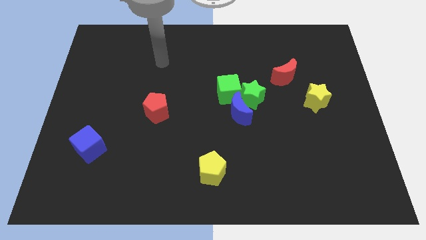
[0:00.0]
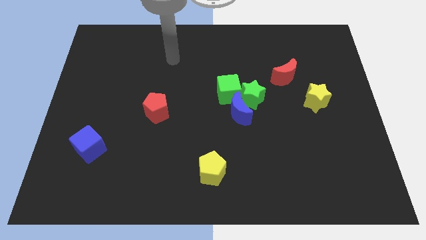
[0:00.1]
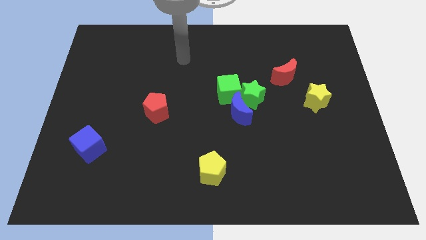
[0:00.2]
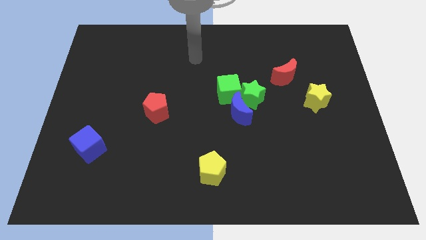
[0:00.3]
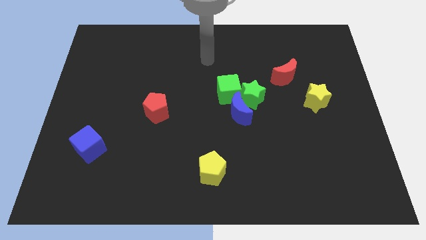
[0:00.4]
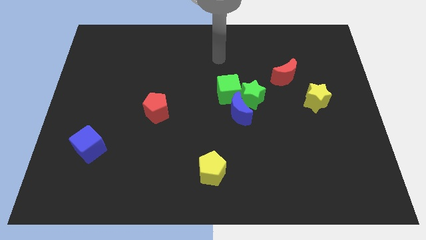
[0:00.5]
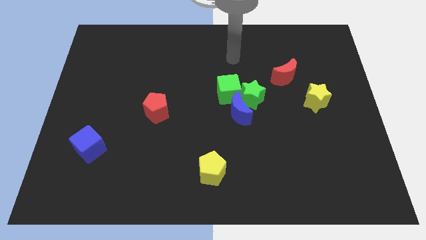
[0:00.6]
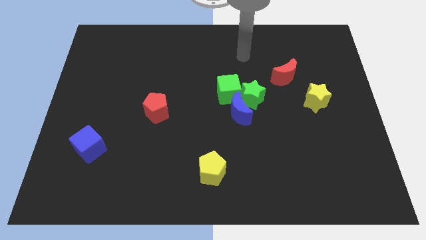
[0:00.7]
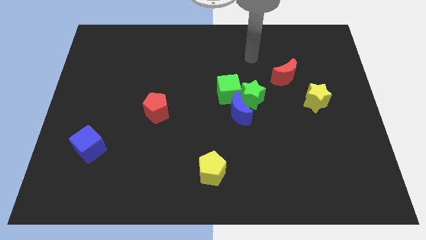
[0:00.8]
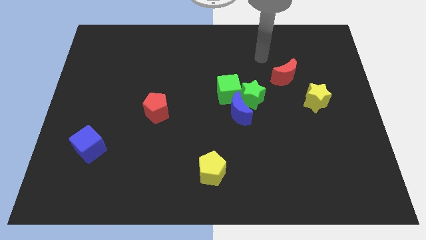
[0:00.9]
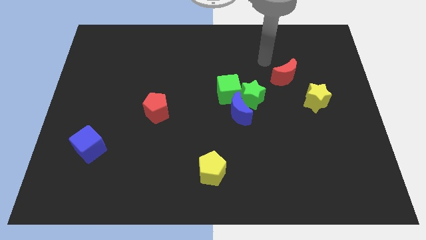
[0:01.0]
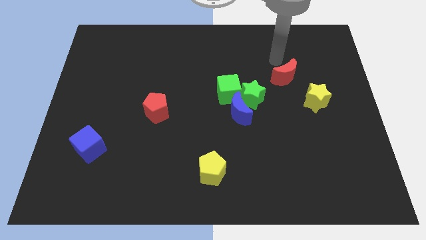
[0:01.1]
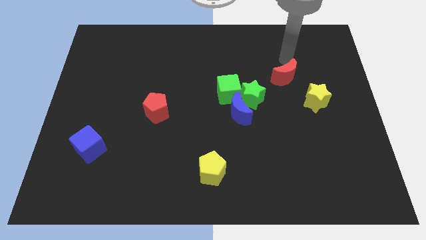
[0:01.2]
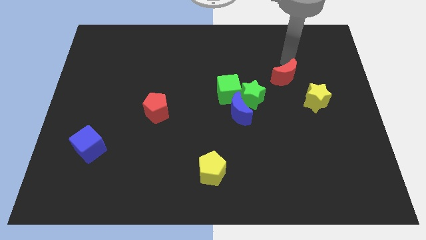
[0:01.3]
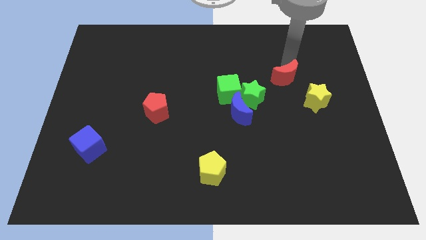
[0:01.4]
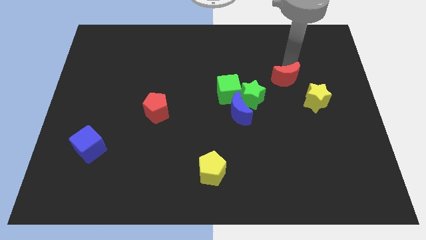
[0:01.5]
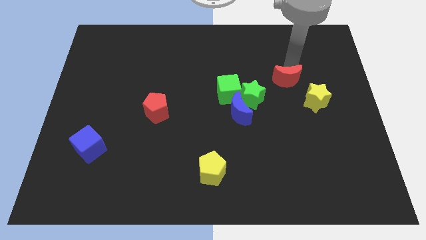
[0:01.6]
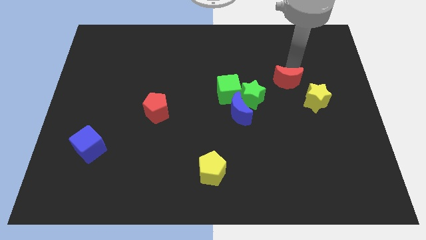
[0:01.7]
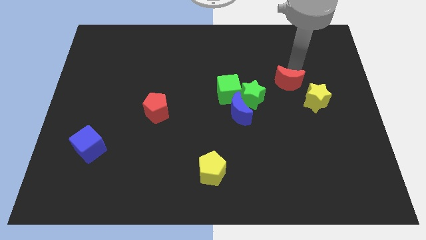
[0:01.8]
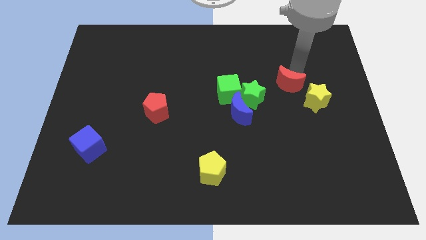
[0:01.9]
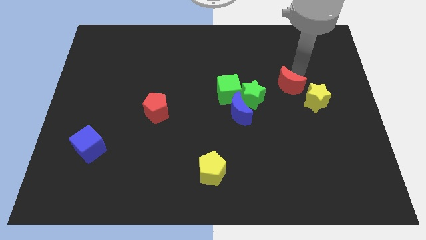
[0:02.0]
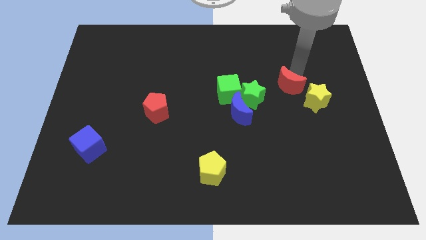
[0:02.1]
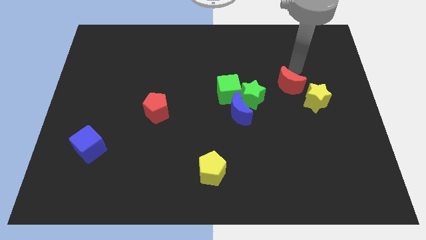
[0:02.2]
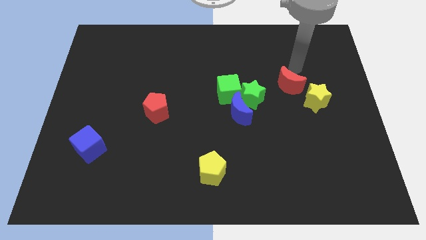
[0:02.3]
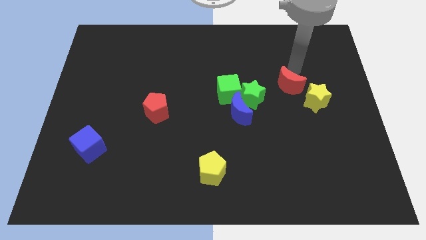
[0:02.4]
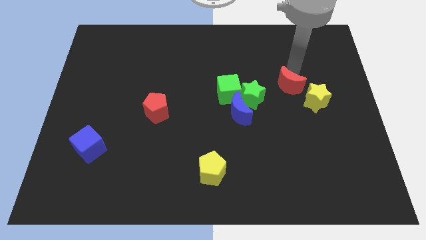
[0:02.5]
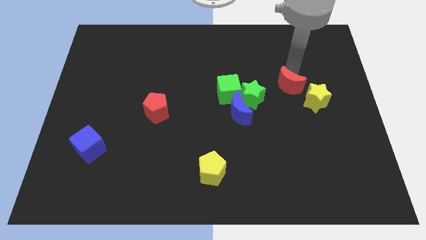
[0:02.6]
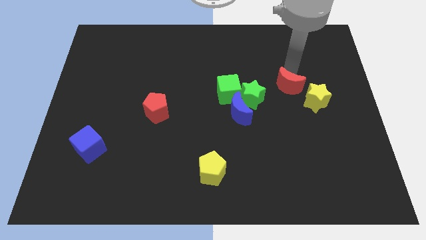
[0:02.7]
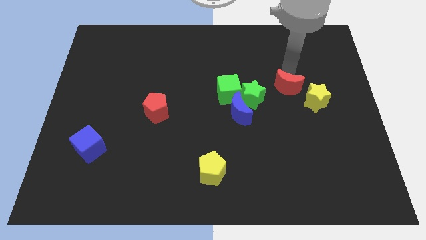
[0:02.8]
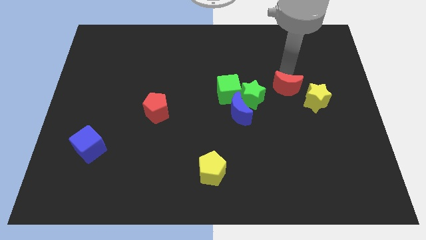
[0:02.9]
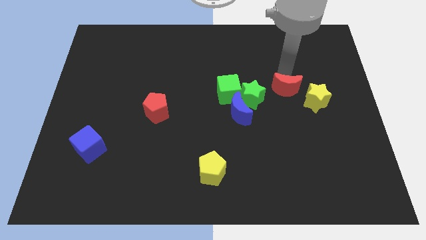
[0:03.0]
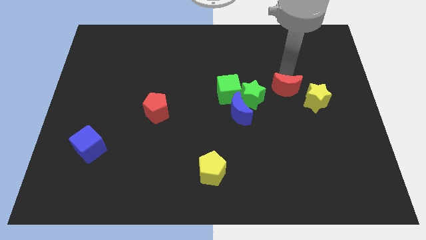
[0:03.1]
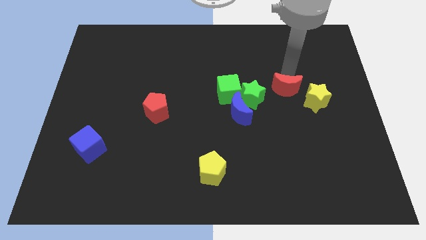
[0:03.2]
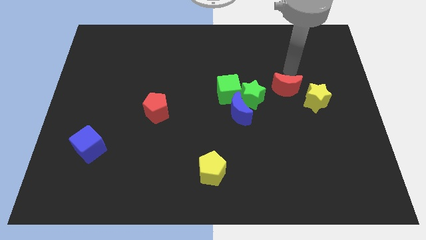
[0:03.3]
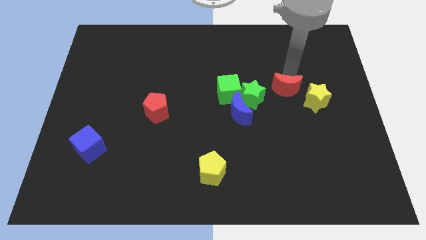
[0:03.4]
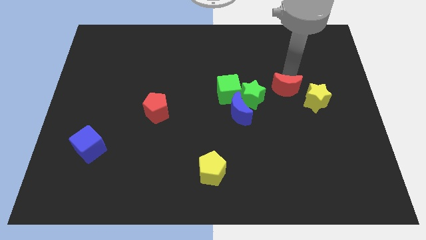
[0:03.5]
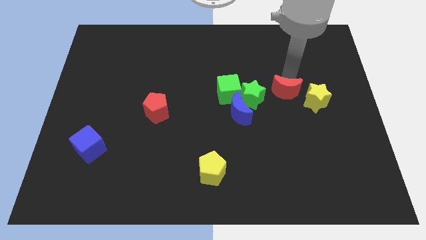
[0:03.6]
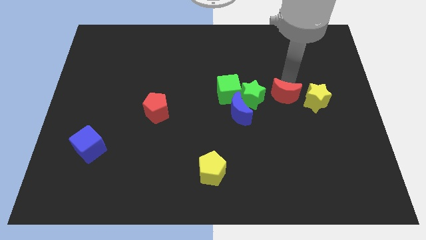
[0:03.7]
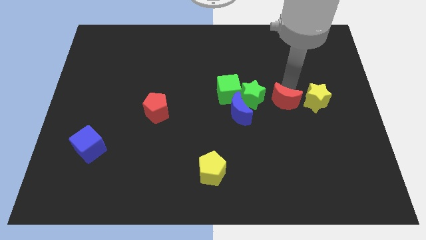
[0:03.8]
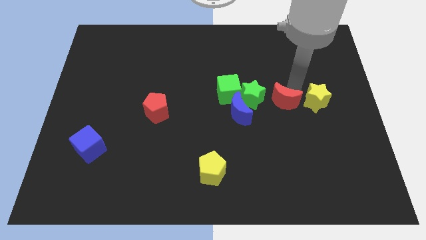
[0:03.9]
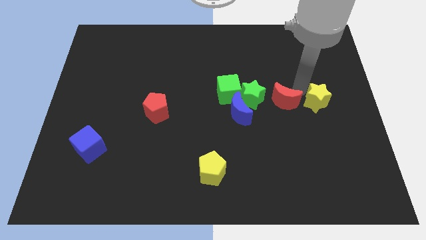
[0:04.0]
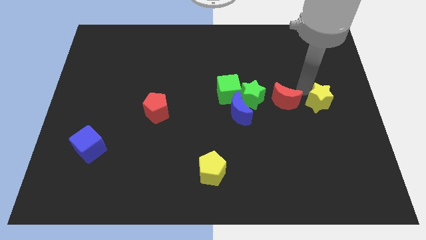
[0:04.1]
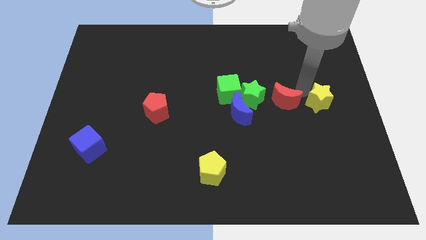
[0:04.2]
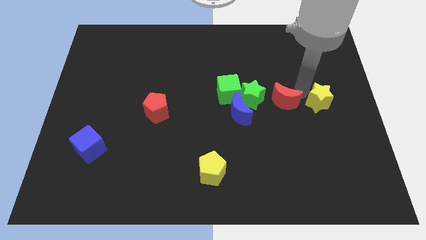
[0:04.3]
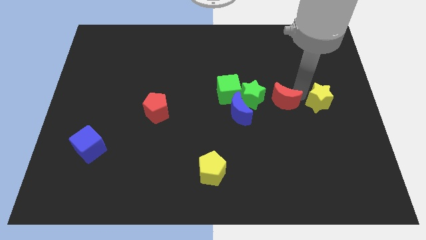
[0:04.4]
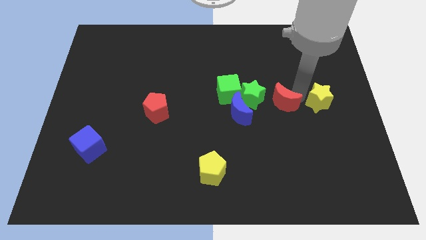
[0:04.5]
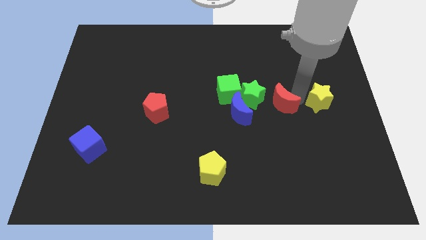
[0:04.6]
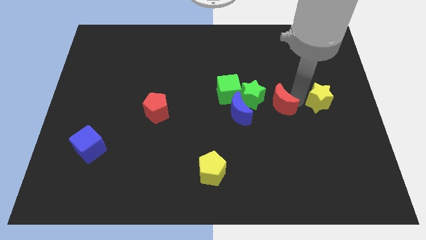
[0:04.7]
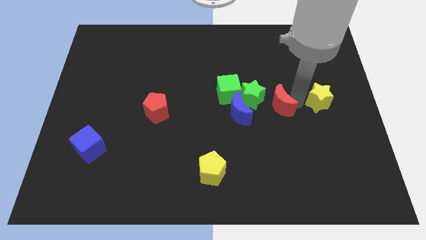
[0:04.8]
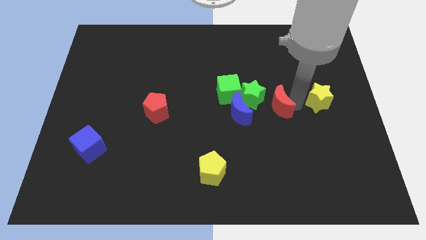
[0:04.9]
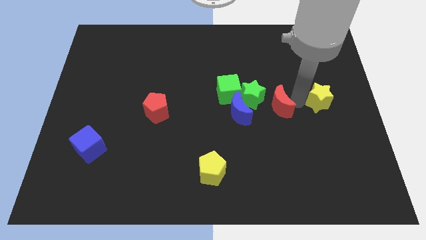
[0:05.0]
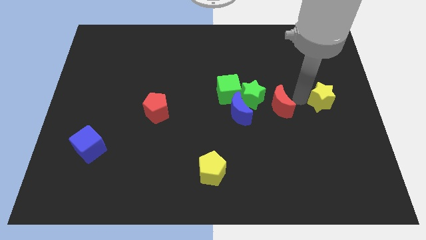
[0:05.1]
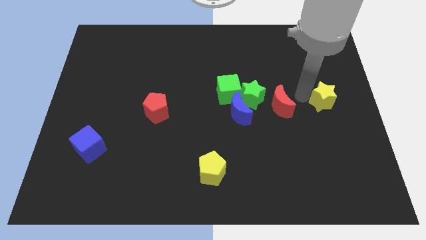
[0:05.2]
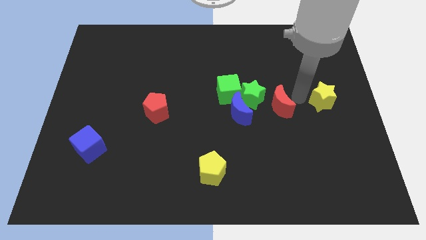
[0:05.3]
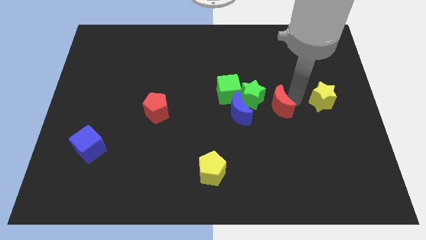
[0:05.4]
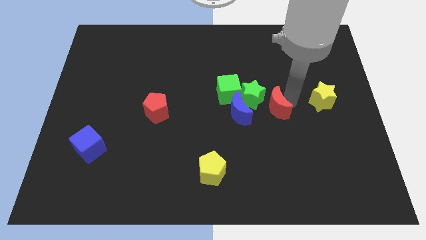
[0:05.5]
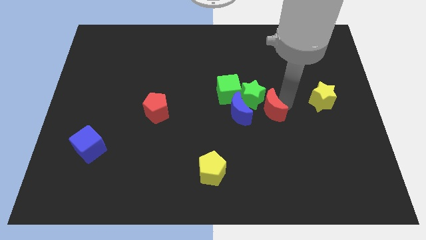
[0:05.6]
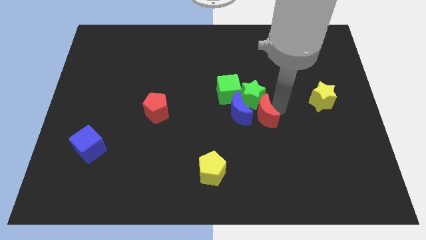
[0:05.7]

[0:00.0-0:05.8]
slide the red moon next to the blue moon

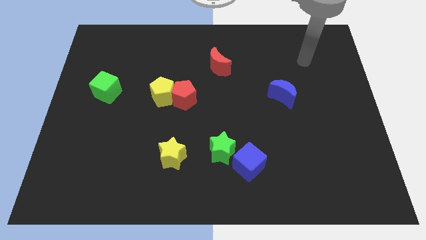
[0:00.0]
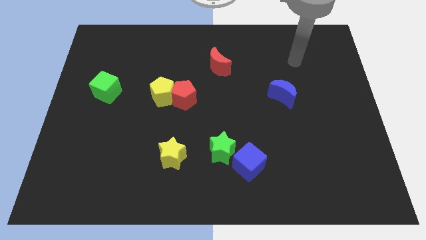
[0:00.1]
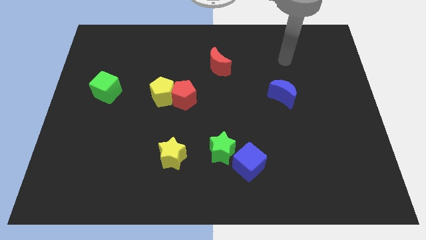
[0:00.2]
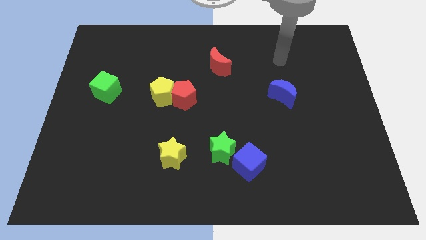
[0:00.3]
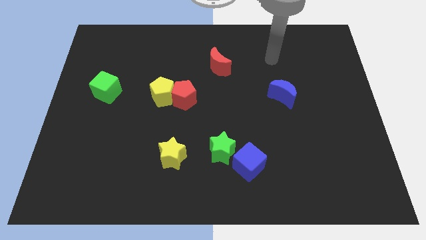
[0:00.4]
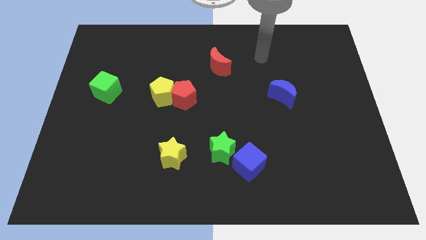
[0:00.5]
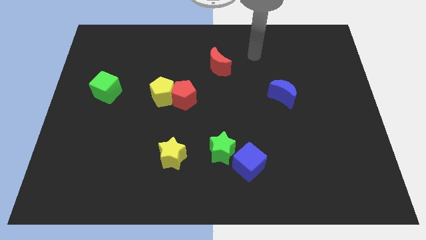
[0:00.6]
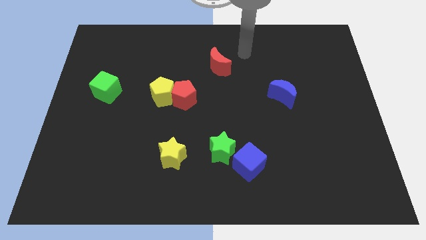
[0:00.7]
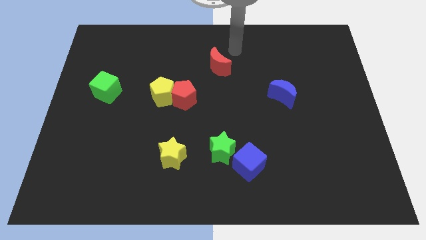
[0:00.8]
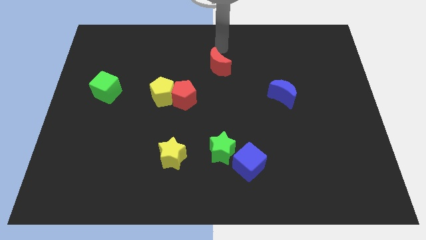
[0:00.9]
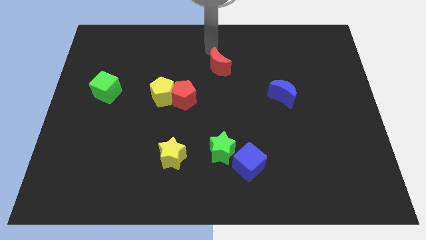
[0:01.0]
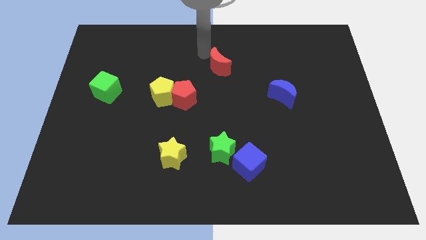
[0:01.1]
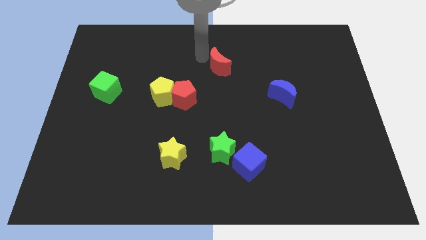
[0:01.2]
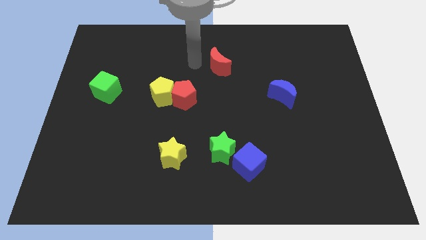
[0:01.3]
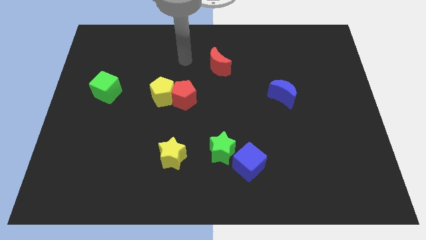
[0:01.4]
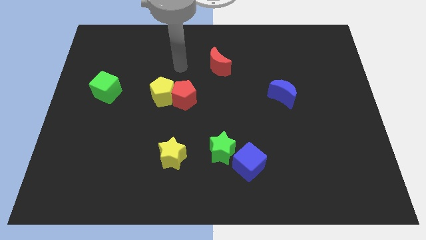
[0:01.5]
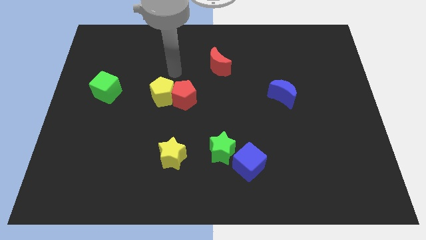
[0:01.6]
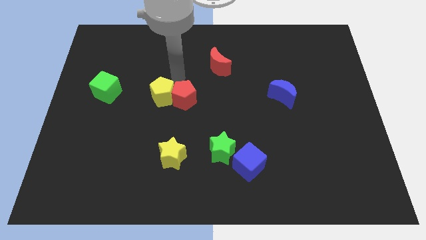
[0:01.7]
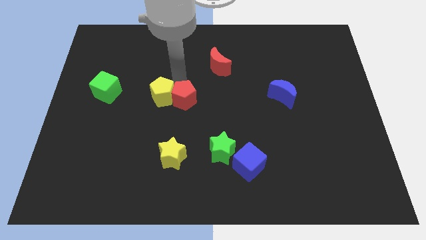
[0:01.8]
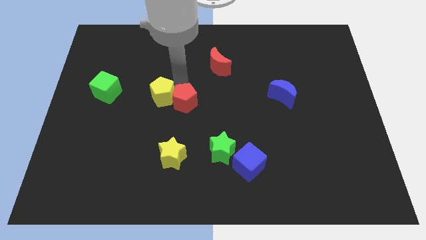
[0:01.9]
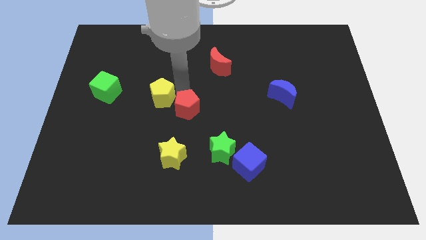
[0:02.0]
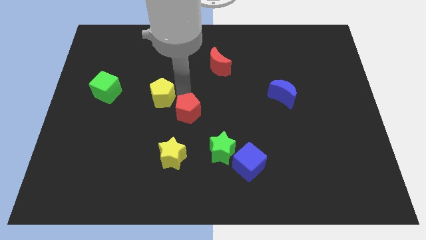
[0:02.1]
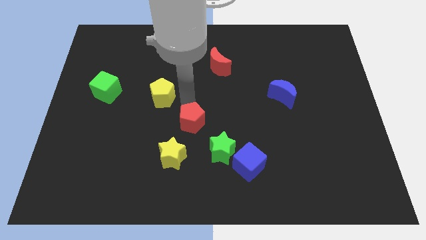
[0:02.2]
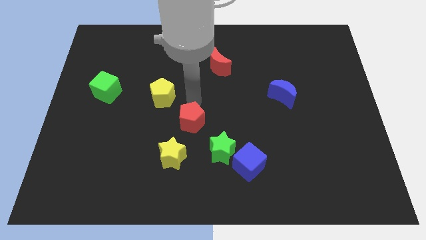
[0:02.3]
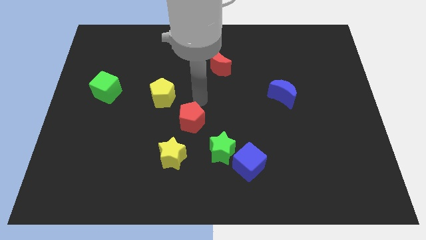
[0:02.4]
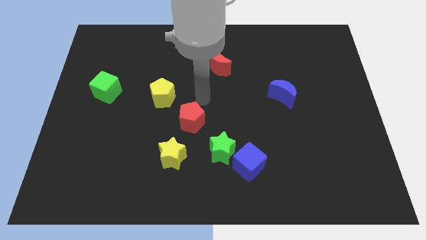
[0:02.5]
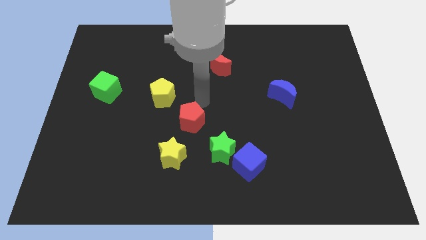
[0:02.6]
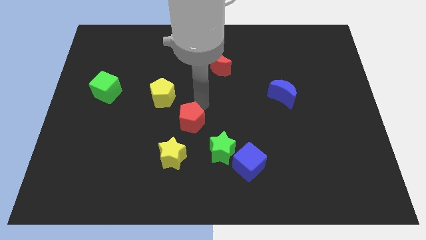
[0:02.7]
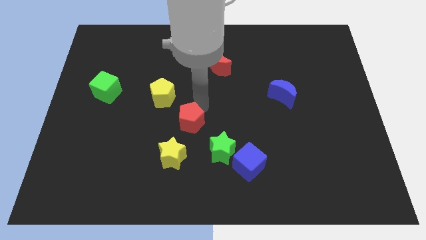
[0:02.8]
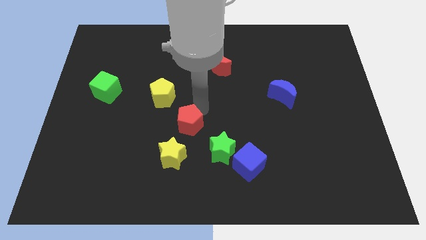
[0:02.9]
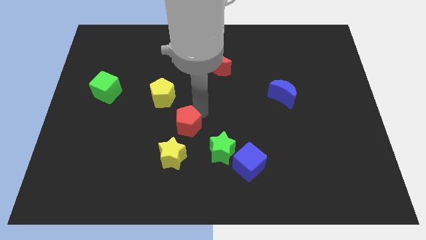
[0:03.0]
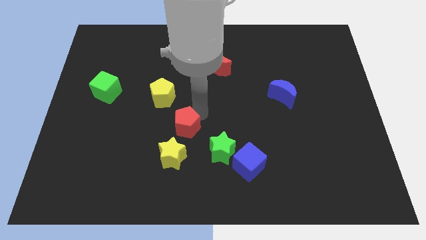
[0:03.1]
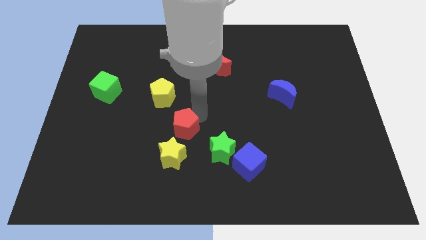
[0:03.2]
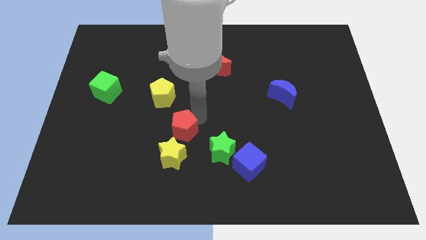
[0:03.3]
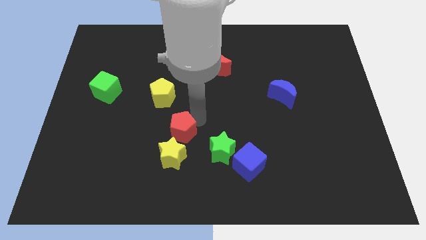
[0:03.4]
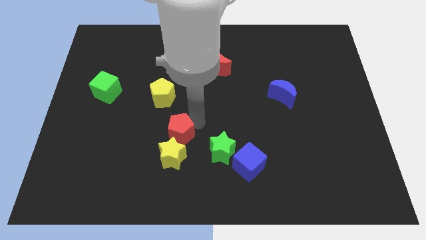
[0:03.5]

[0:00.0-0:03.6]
push the red pentagon close to the yellow star
